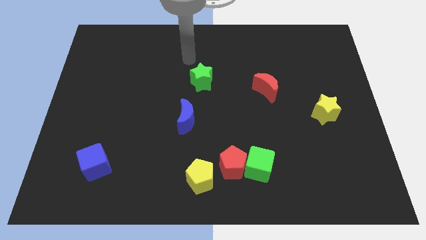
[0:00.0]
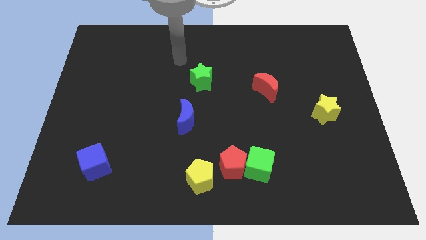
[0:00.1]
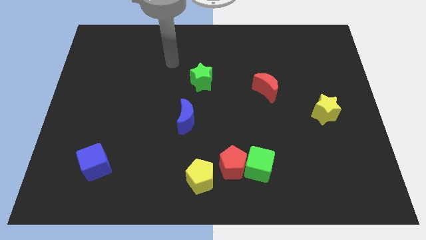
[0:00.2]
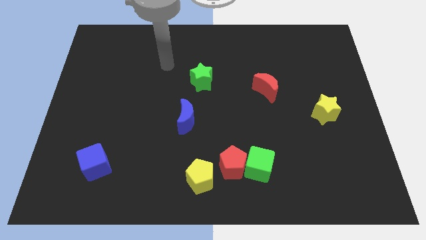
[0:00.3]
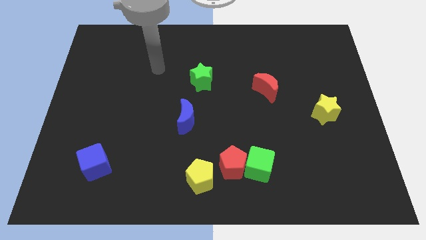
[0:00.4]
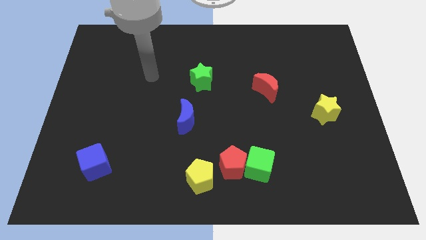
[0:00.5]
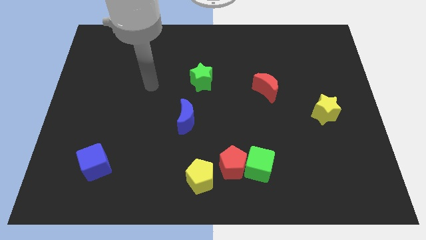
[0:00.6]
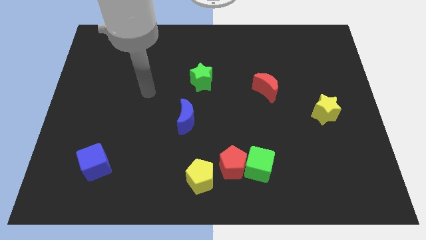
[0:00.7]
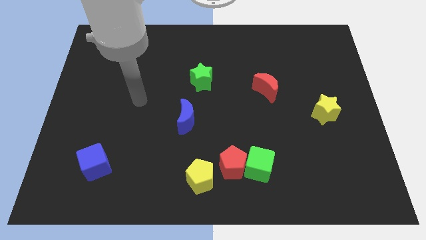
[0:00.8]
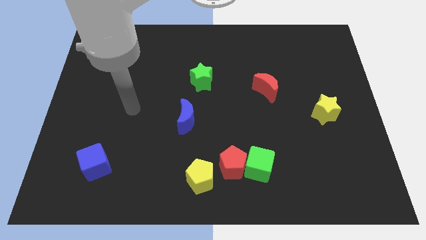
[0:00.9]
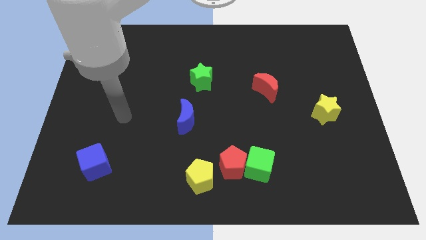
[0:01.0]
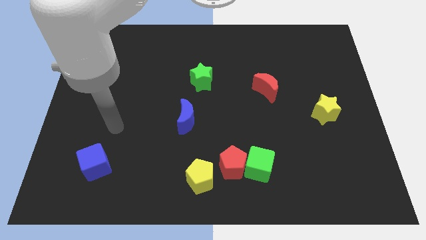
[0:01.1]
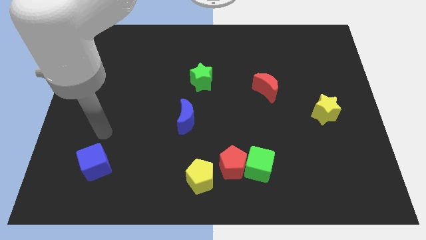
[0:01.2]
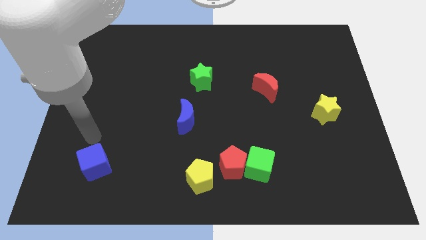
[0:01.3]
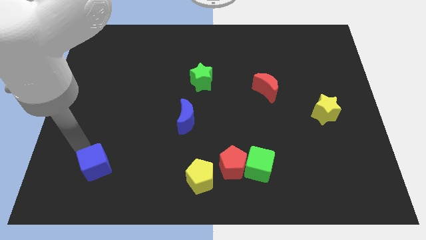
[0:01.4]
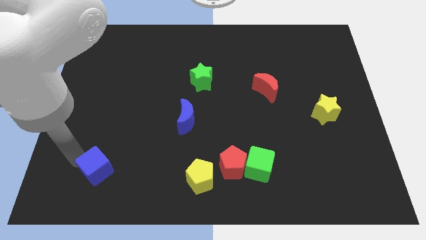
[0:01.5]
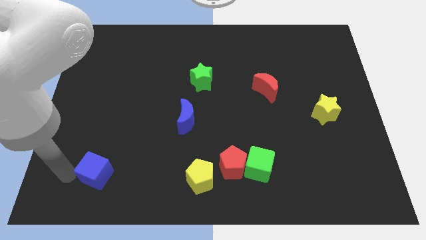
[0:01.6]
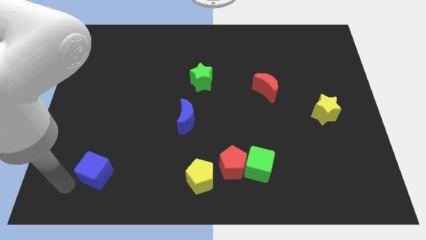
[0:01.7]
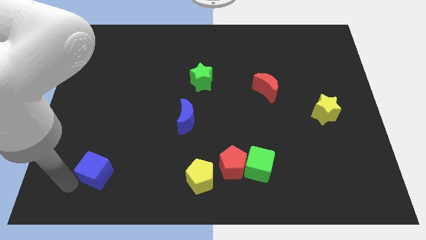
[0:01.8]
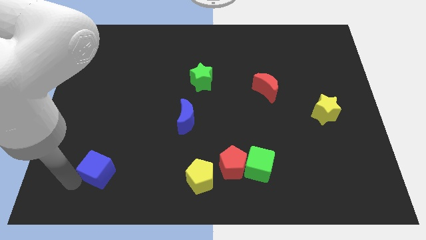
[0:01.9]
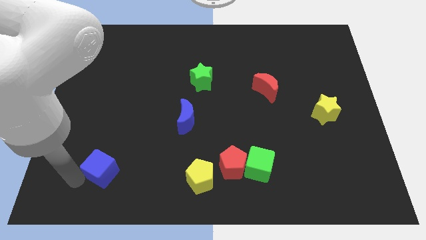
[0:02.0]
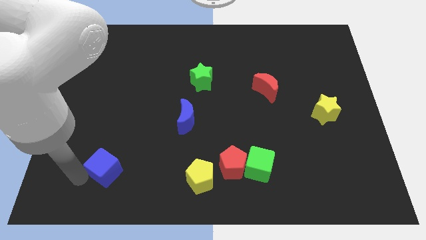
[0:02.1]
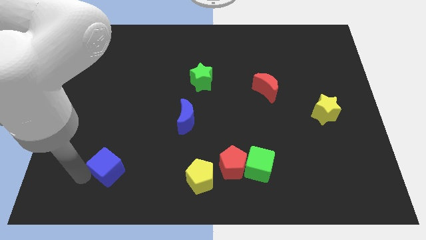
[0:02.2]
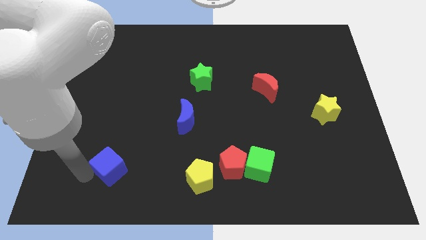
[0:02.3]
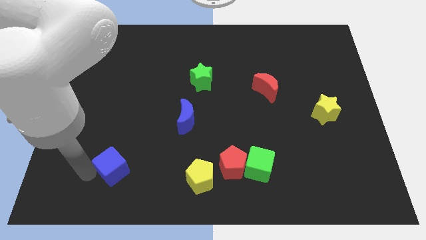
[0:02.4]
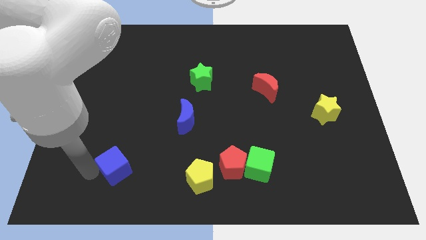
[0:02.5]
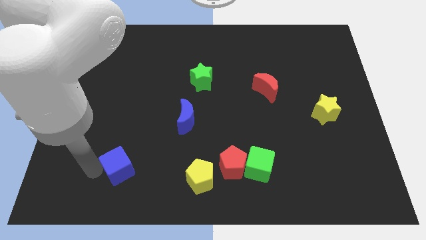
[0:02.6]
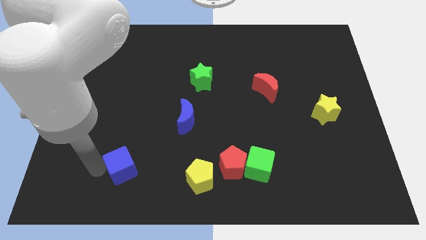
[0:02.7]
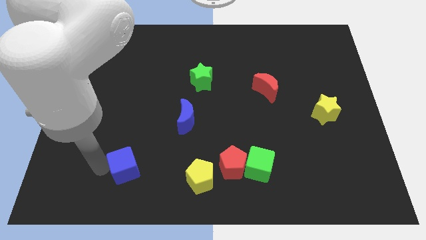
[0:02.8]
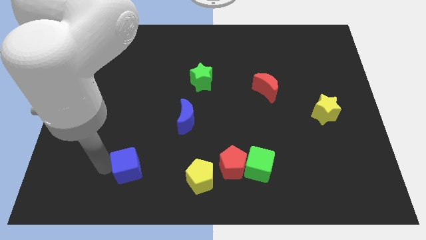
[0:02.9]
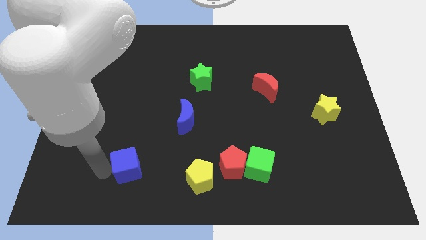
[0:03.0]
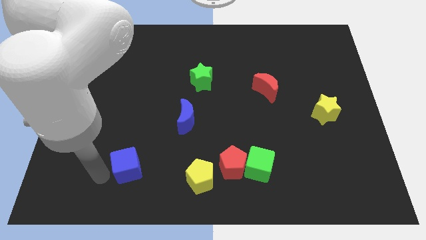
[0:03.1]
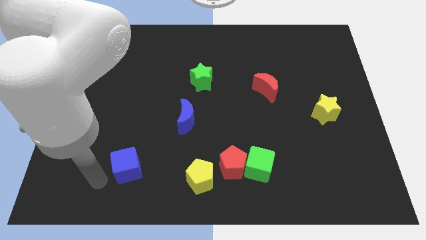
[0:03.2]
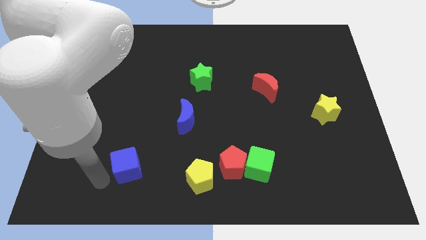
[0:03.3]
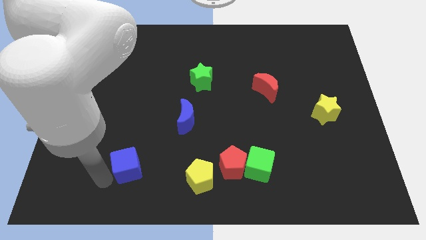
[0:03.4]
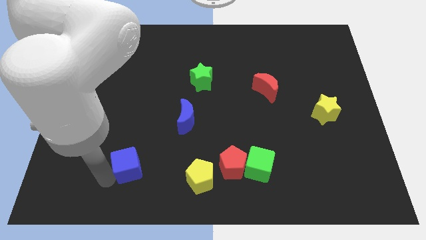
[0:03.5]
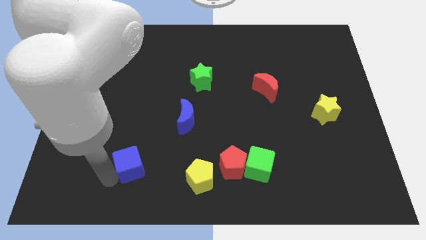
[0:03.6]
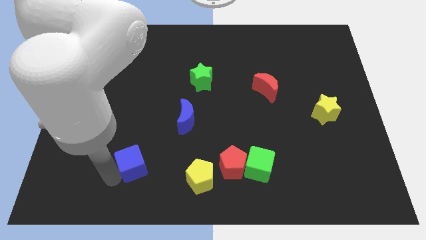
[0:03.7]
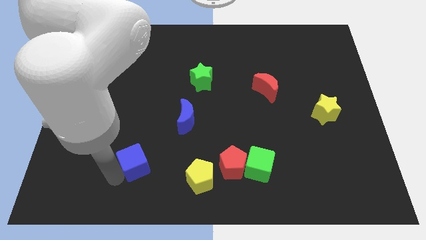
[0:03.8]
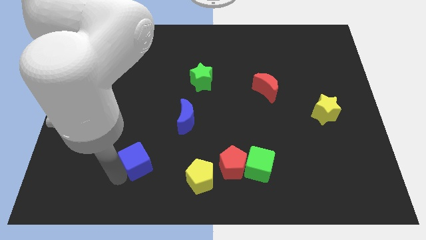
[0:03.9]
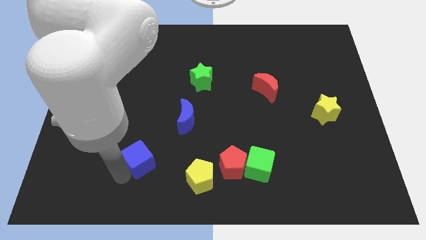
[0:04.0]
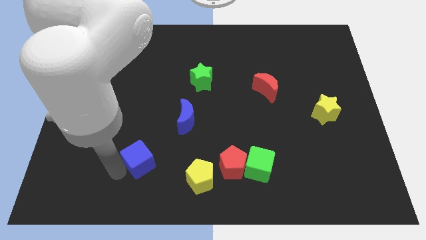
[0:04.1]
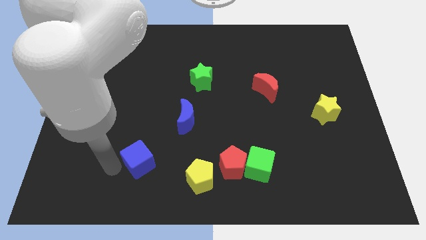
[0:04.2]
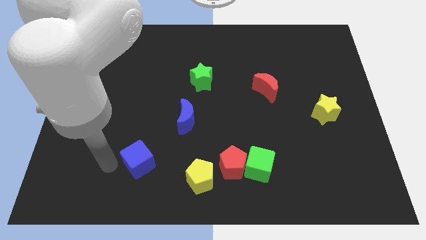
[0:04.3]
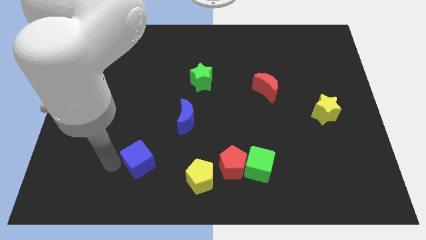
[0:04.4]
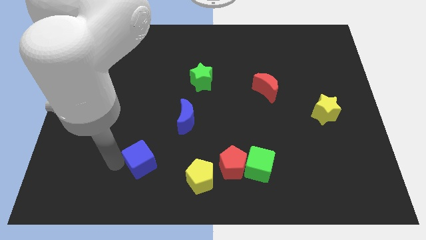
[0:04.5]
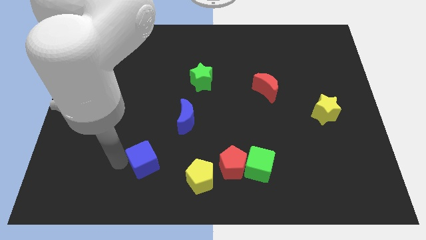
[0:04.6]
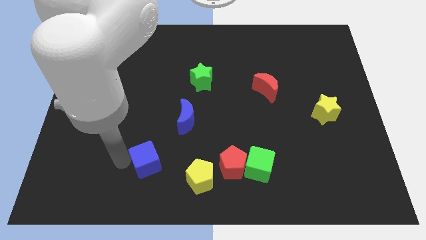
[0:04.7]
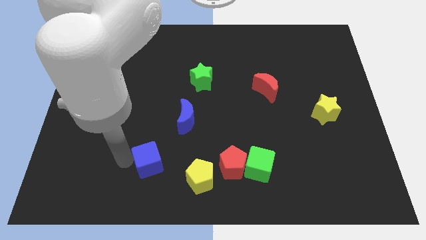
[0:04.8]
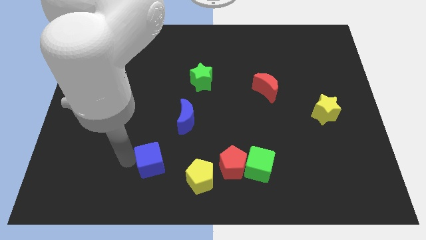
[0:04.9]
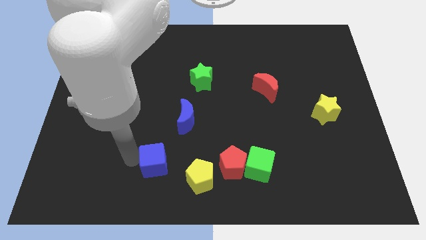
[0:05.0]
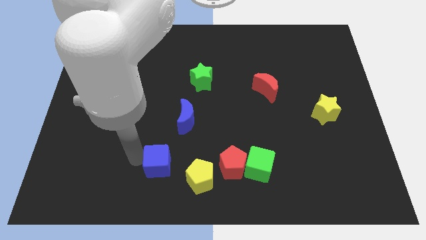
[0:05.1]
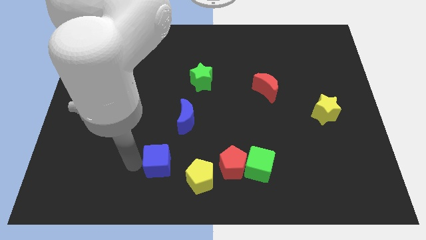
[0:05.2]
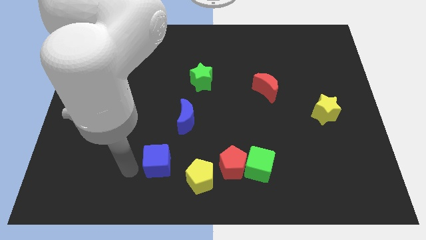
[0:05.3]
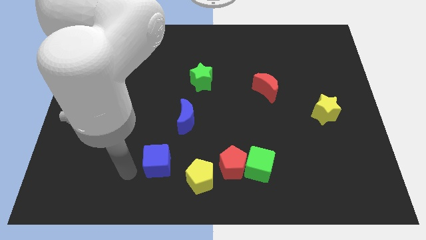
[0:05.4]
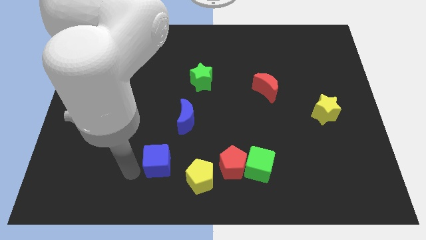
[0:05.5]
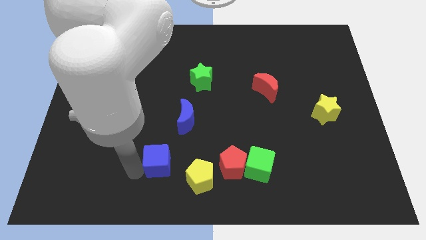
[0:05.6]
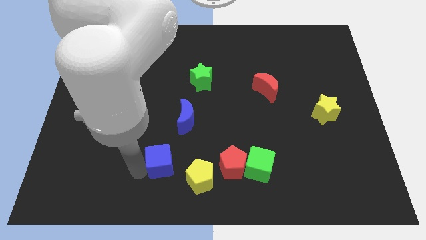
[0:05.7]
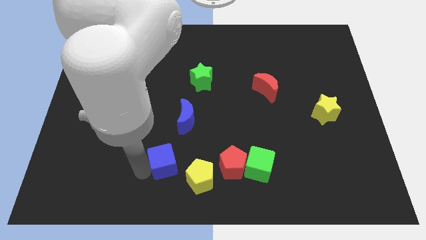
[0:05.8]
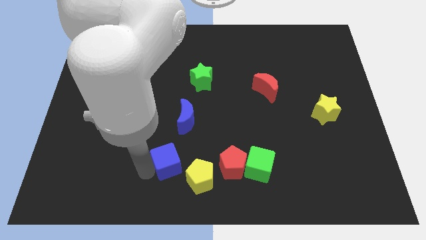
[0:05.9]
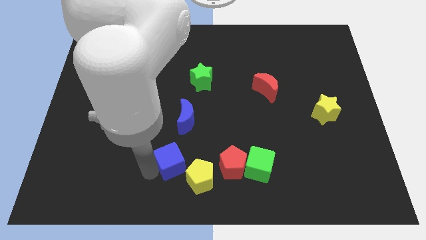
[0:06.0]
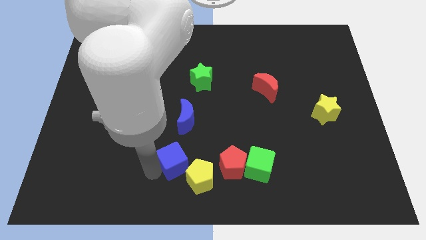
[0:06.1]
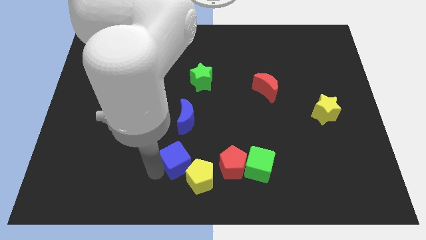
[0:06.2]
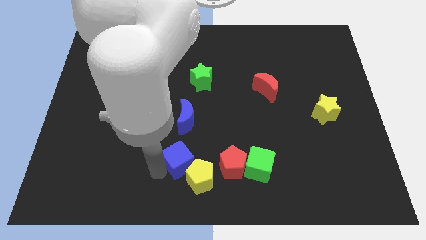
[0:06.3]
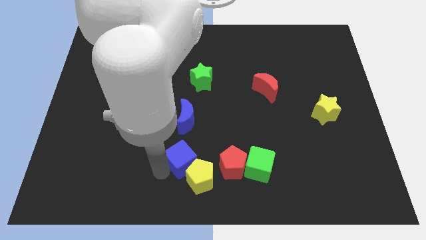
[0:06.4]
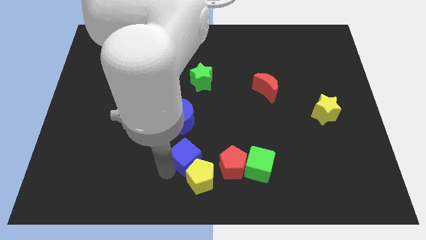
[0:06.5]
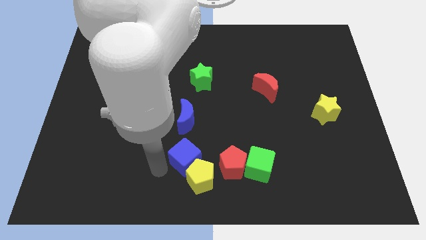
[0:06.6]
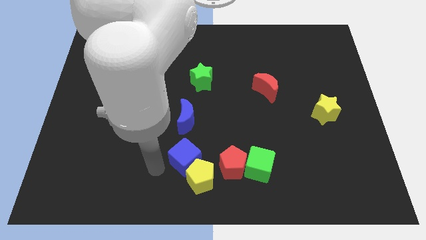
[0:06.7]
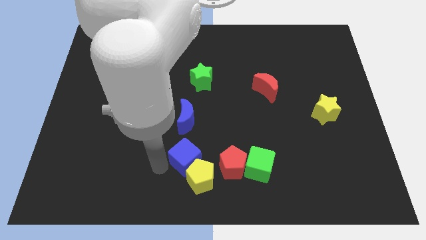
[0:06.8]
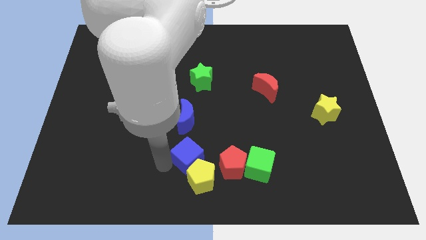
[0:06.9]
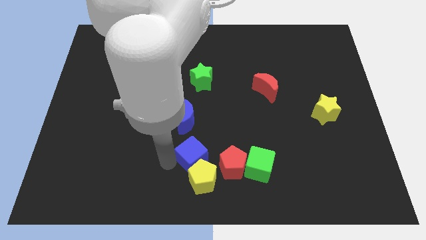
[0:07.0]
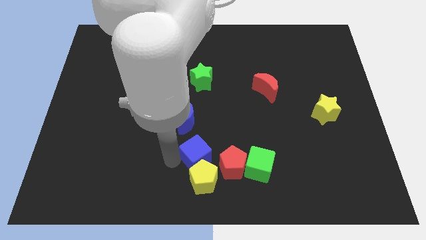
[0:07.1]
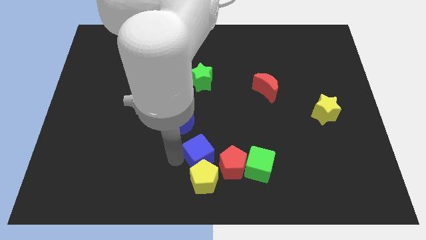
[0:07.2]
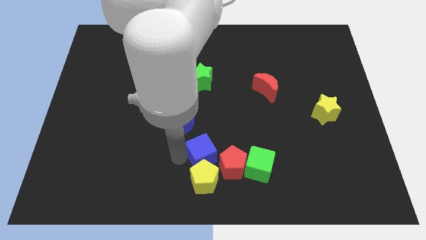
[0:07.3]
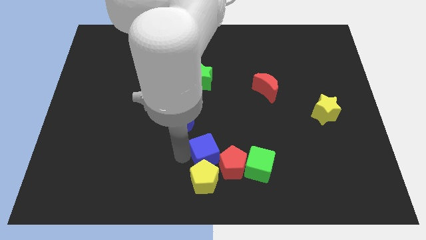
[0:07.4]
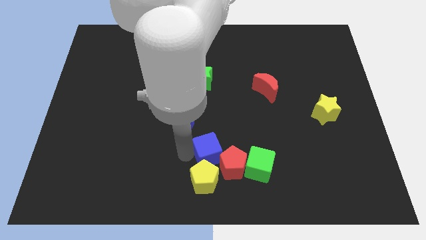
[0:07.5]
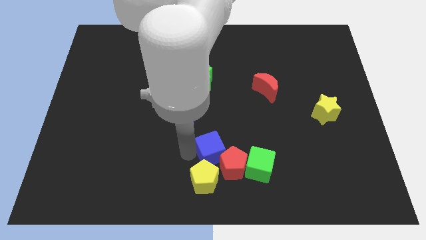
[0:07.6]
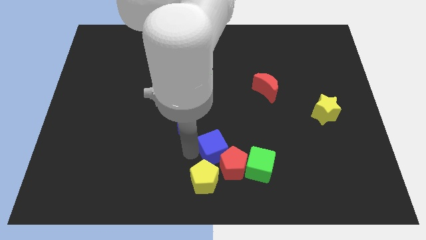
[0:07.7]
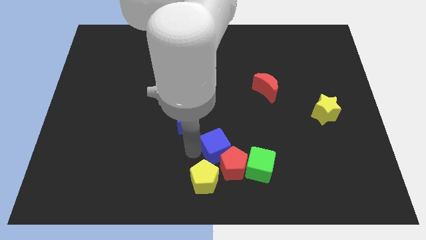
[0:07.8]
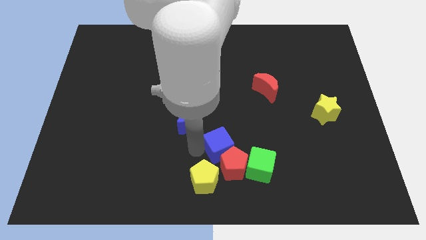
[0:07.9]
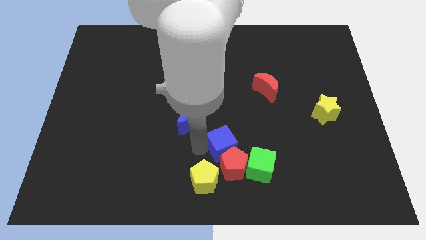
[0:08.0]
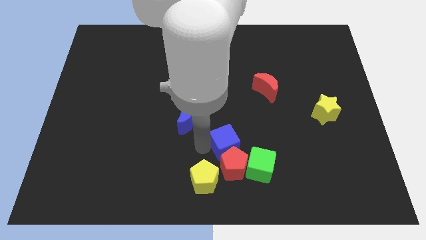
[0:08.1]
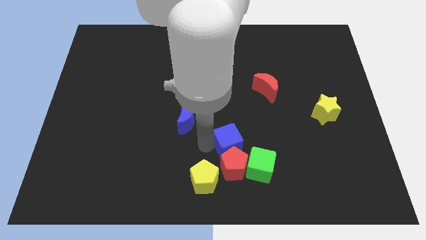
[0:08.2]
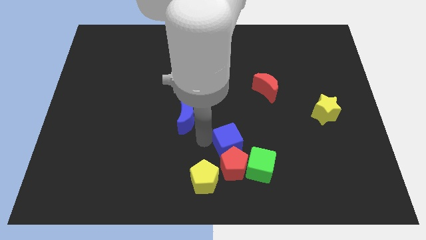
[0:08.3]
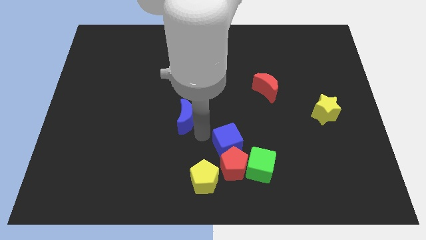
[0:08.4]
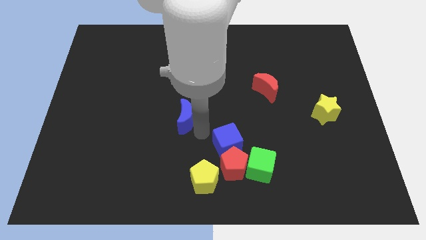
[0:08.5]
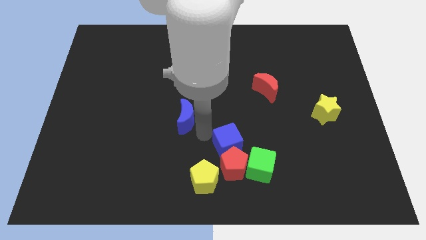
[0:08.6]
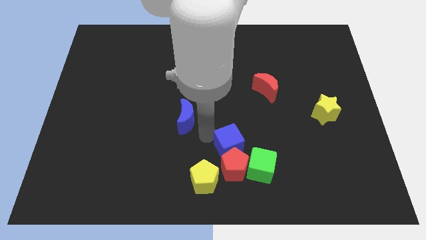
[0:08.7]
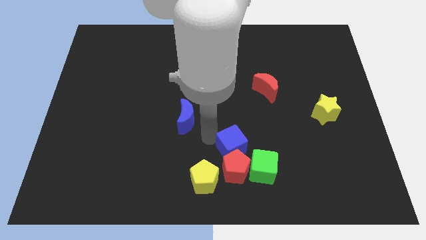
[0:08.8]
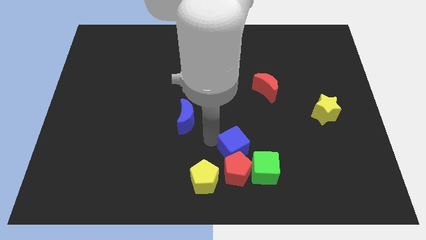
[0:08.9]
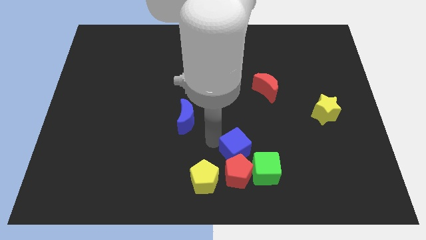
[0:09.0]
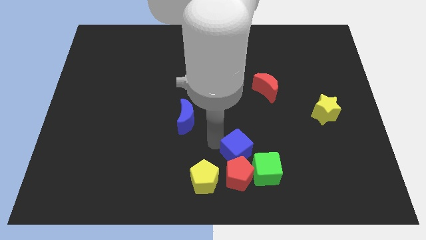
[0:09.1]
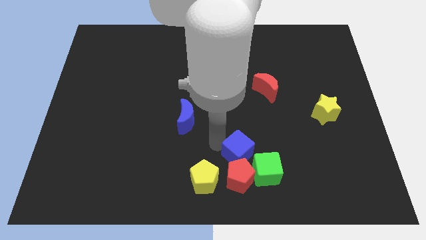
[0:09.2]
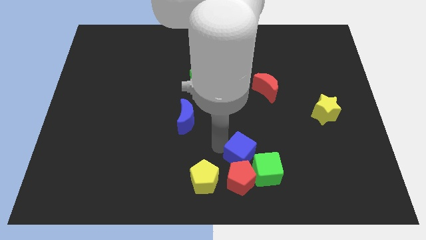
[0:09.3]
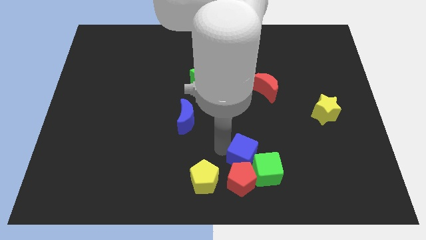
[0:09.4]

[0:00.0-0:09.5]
slide the blue cube to the green cube
